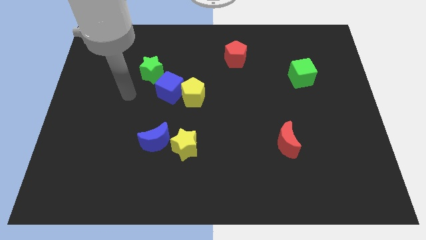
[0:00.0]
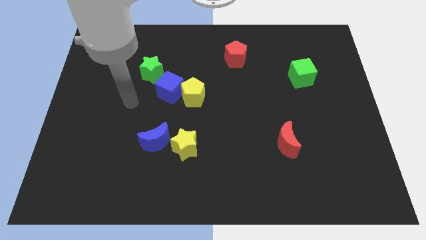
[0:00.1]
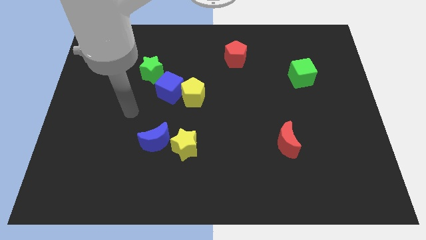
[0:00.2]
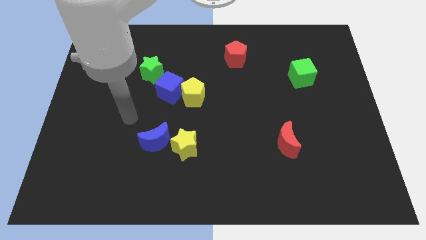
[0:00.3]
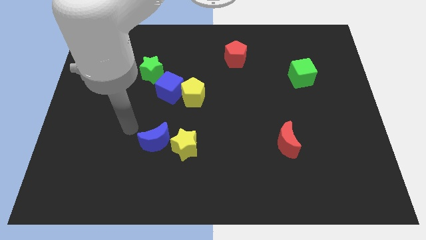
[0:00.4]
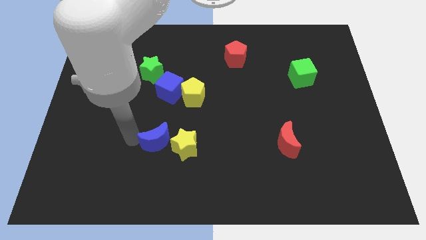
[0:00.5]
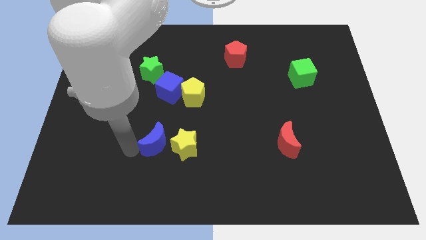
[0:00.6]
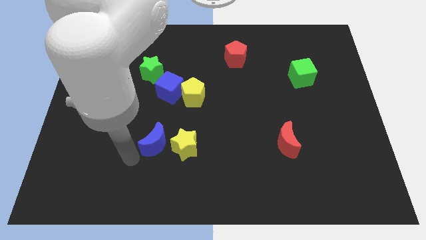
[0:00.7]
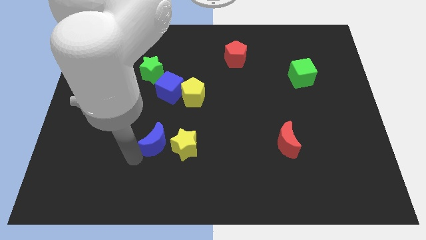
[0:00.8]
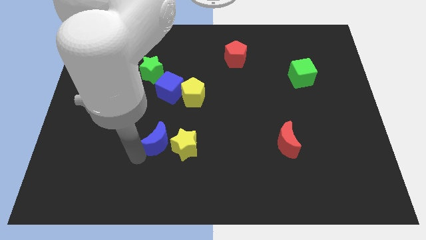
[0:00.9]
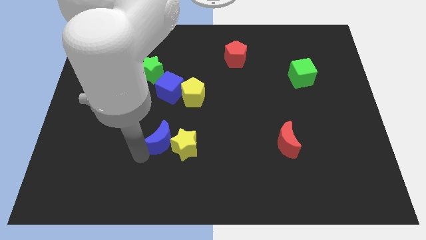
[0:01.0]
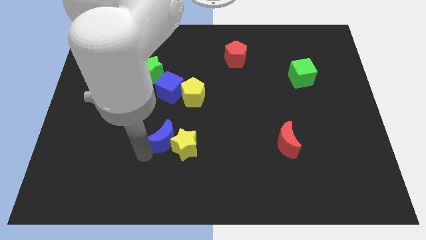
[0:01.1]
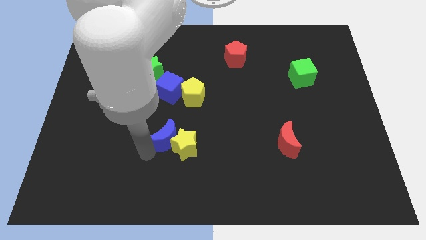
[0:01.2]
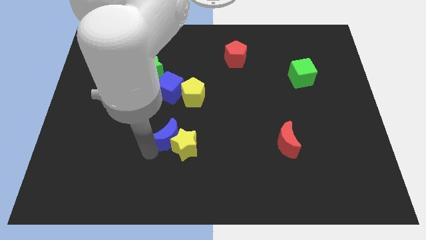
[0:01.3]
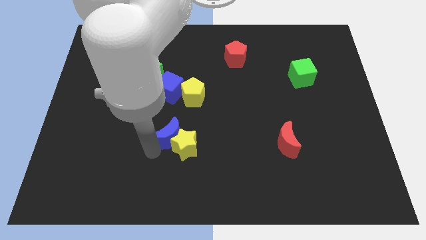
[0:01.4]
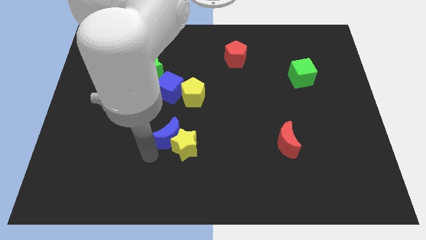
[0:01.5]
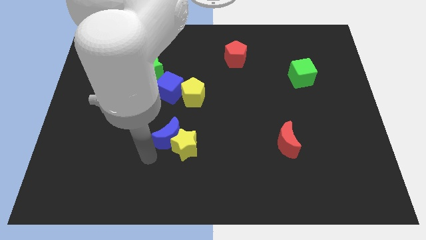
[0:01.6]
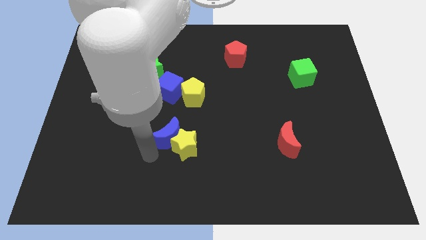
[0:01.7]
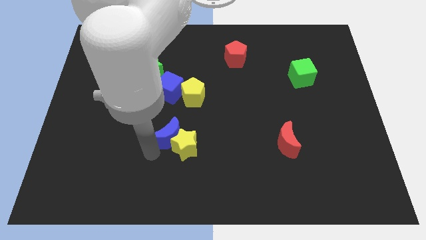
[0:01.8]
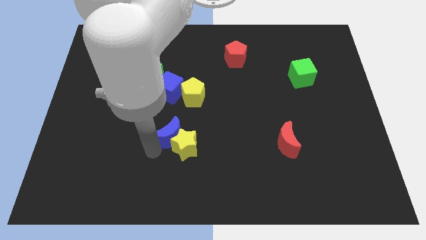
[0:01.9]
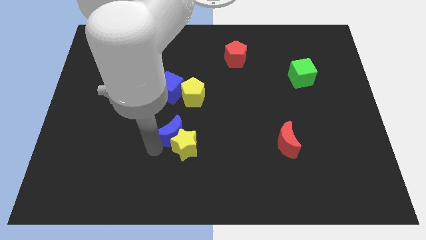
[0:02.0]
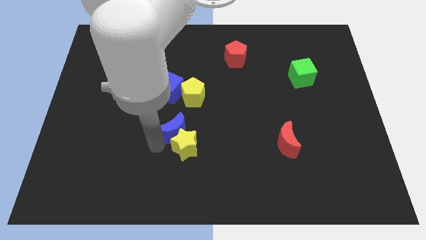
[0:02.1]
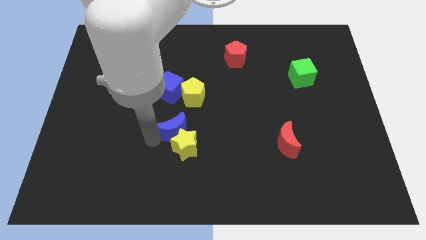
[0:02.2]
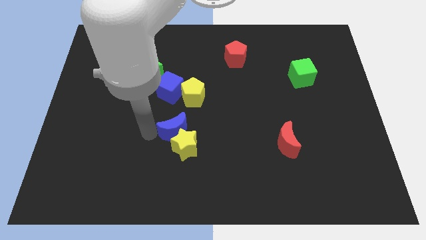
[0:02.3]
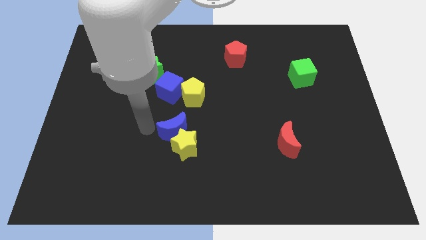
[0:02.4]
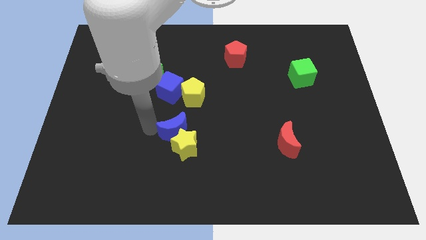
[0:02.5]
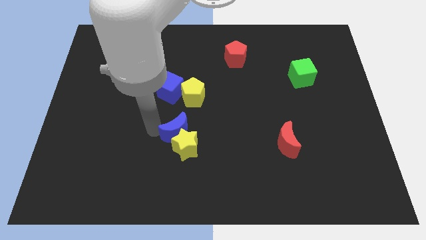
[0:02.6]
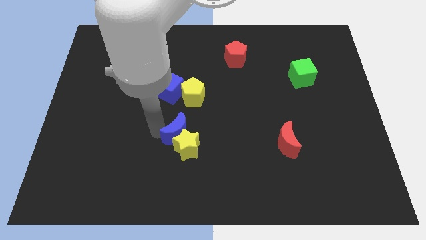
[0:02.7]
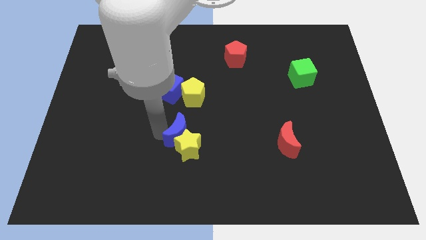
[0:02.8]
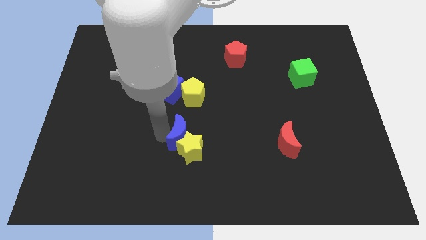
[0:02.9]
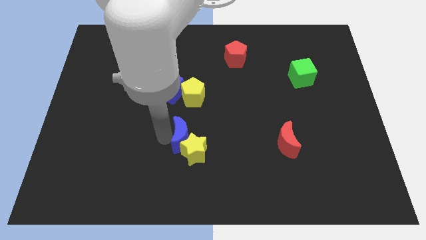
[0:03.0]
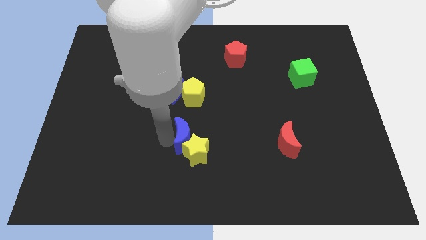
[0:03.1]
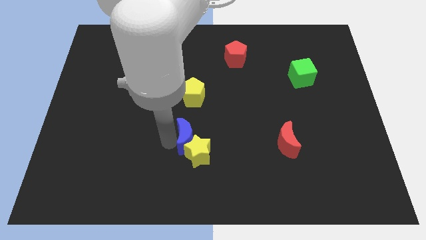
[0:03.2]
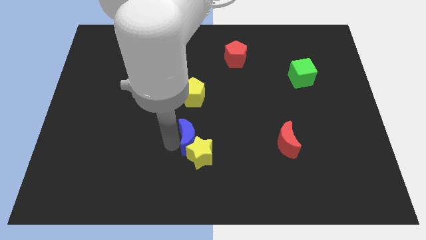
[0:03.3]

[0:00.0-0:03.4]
slightly push the blue moon right

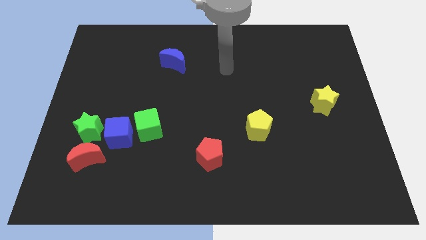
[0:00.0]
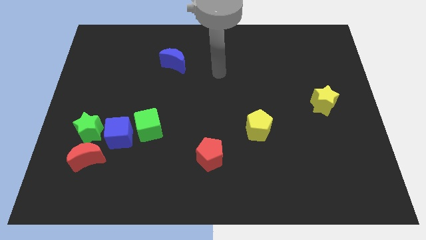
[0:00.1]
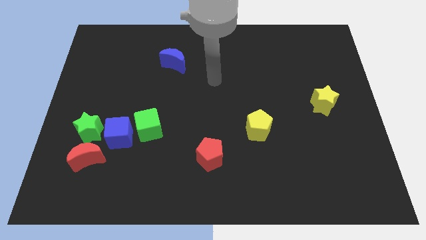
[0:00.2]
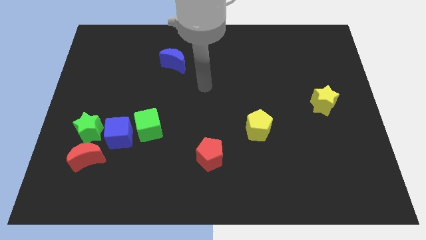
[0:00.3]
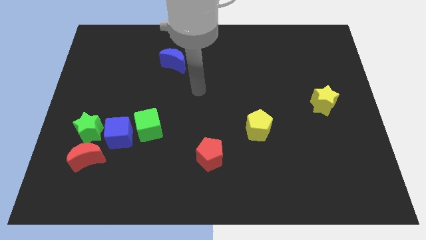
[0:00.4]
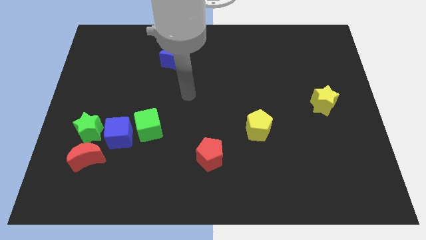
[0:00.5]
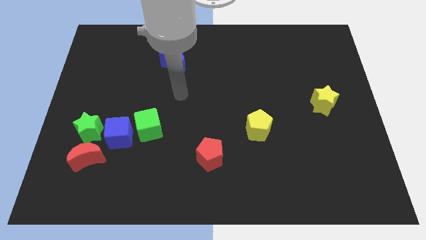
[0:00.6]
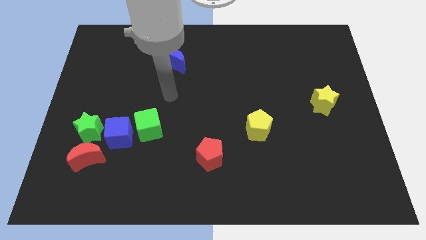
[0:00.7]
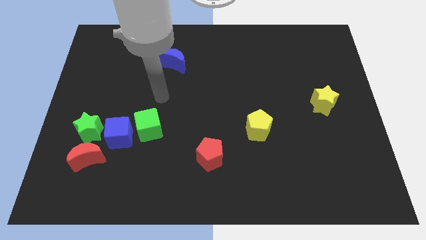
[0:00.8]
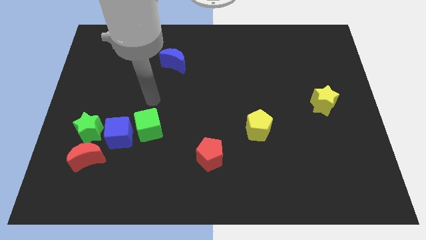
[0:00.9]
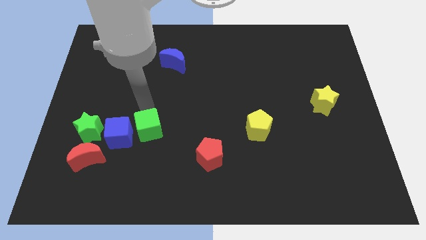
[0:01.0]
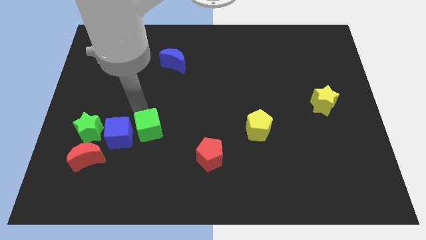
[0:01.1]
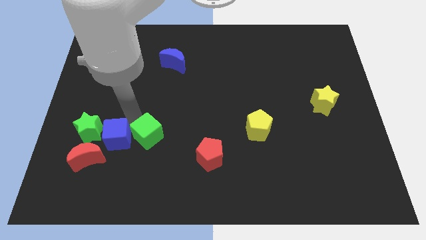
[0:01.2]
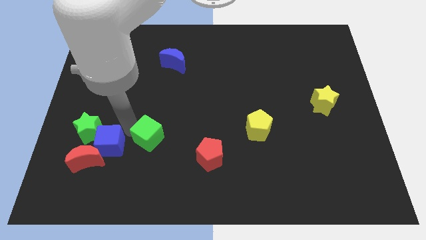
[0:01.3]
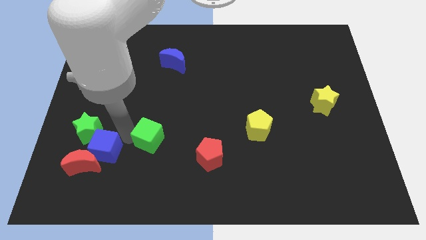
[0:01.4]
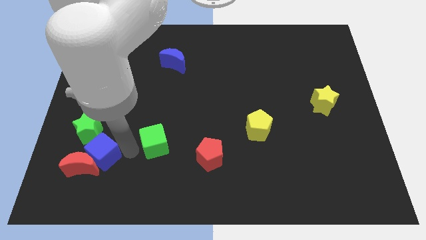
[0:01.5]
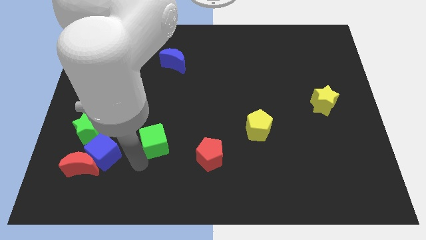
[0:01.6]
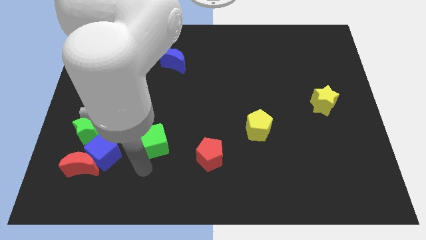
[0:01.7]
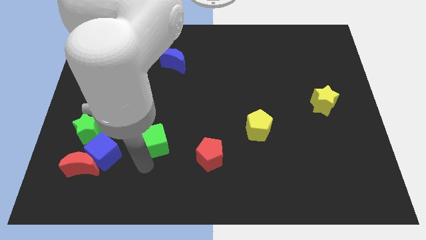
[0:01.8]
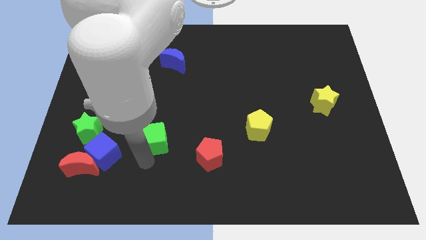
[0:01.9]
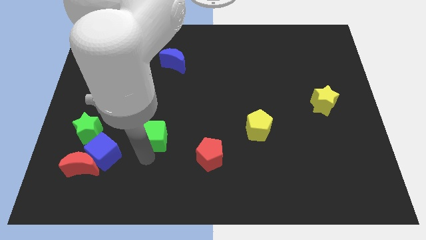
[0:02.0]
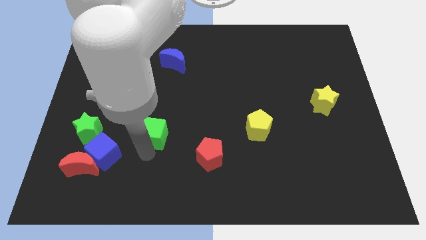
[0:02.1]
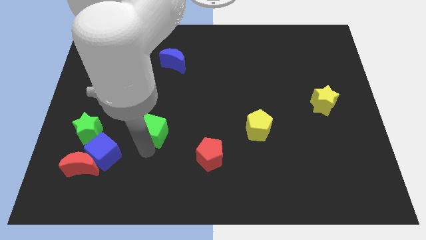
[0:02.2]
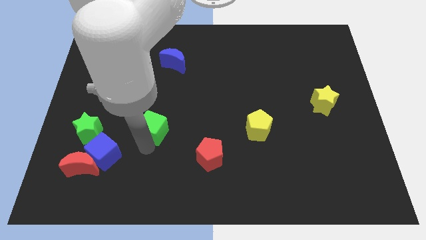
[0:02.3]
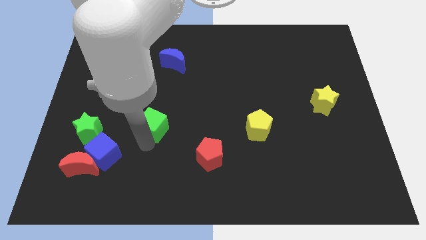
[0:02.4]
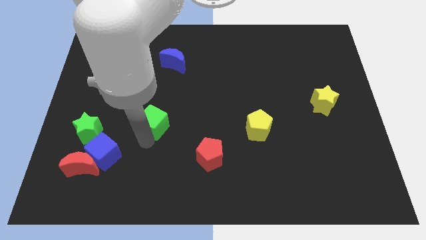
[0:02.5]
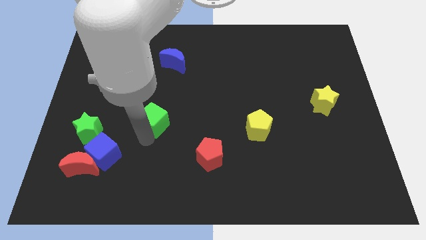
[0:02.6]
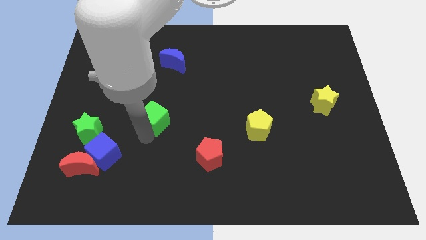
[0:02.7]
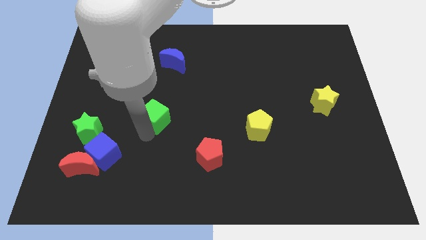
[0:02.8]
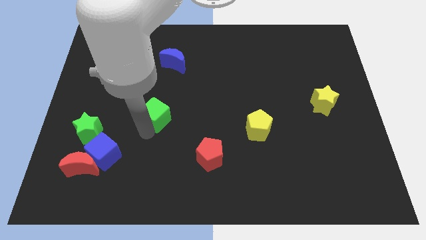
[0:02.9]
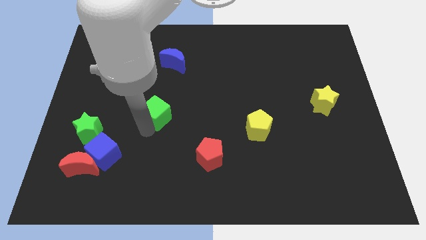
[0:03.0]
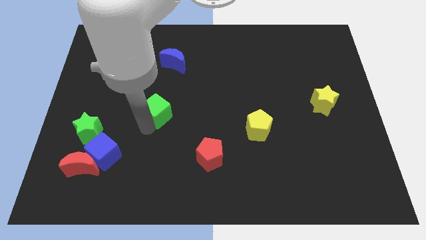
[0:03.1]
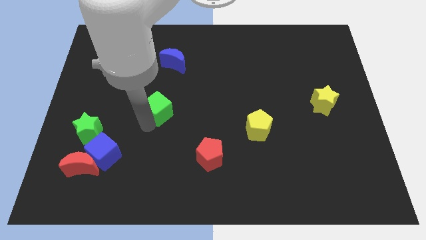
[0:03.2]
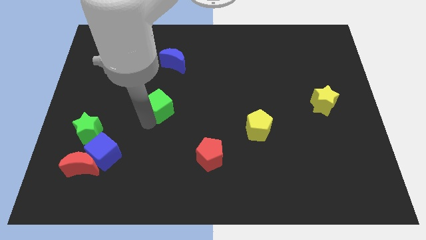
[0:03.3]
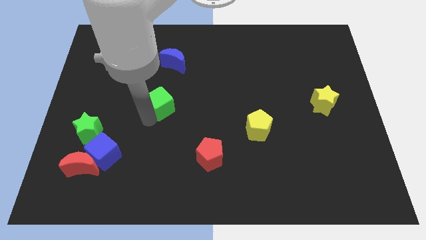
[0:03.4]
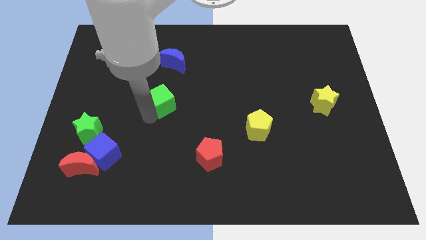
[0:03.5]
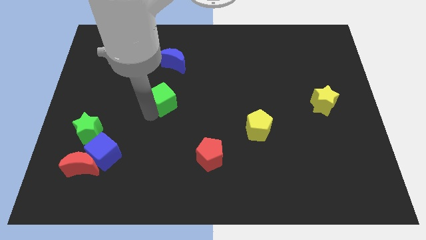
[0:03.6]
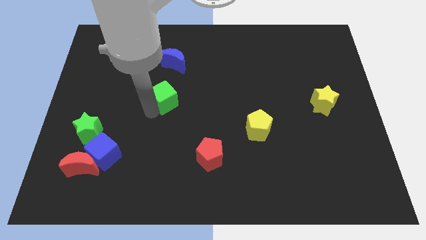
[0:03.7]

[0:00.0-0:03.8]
slide the green cube somewhat up and to the right
